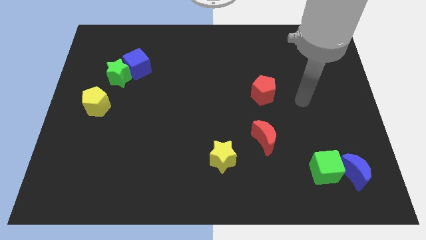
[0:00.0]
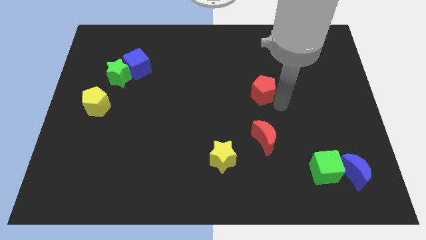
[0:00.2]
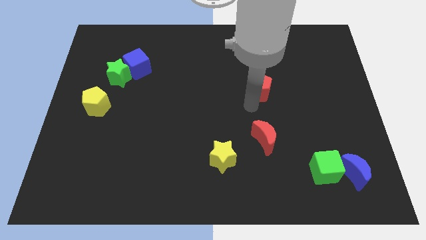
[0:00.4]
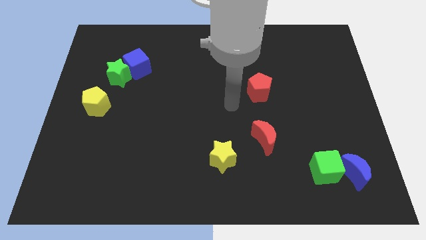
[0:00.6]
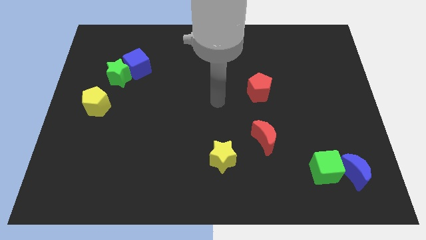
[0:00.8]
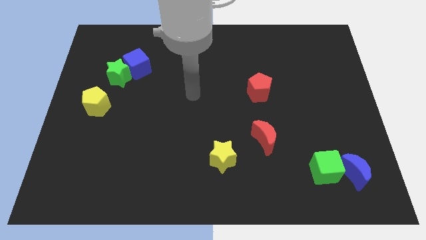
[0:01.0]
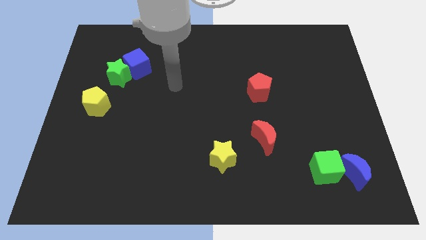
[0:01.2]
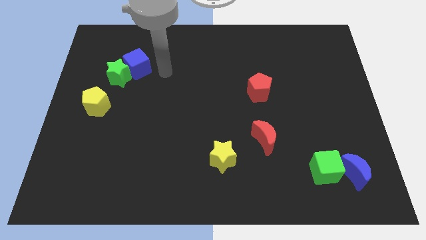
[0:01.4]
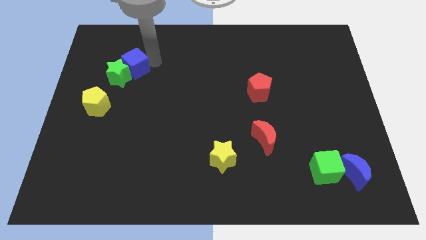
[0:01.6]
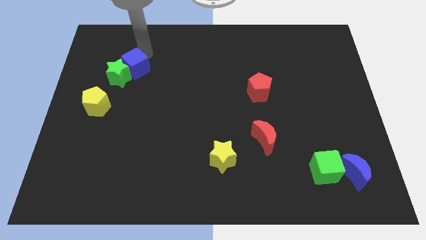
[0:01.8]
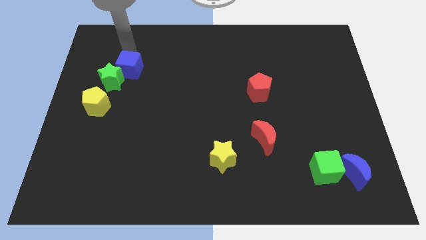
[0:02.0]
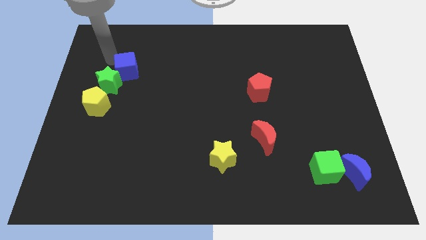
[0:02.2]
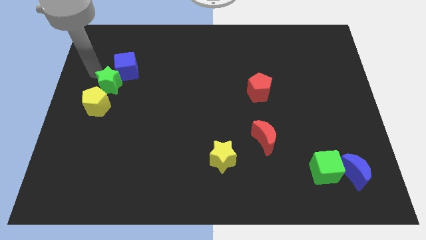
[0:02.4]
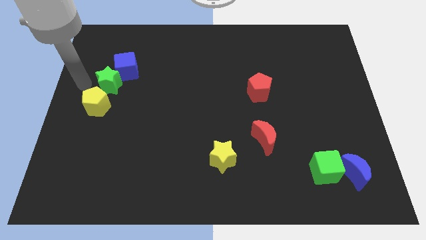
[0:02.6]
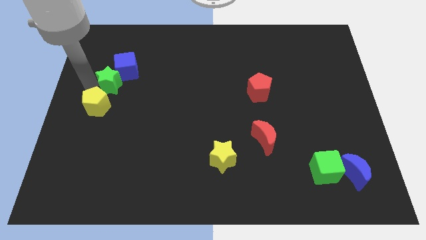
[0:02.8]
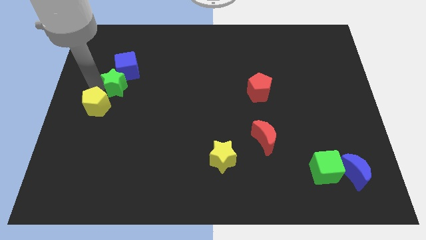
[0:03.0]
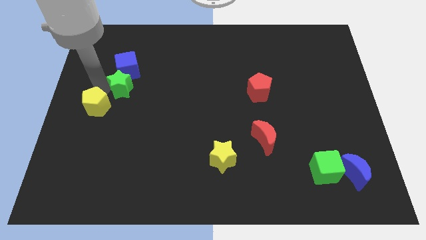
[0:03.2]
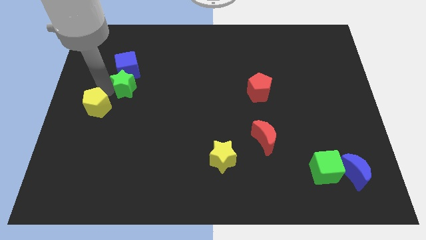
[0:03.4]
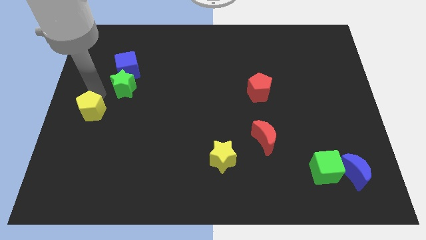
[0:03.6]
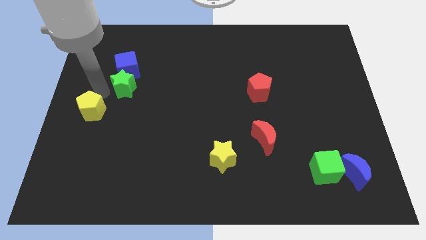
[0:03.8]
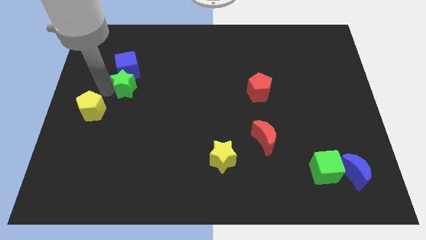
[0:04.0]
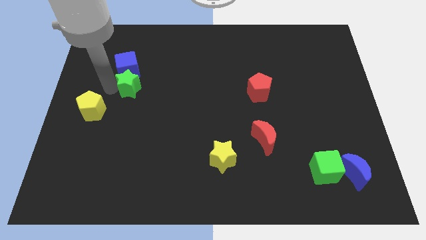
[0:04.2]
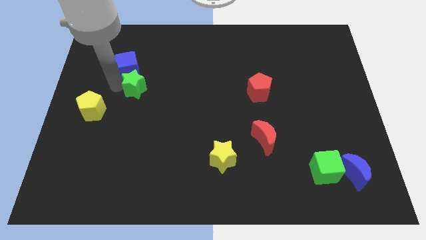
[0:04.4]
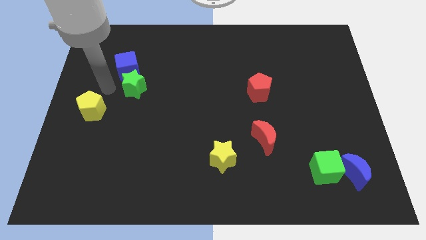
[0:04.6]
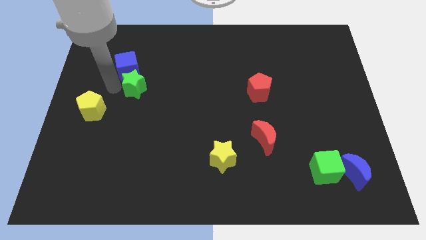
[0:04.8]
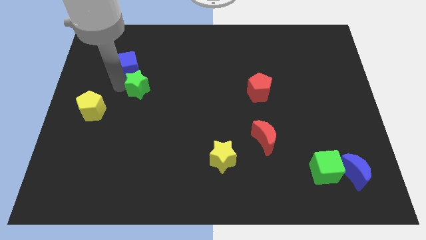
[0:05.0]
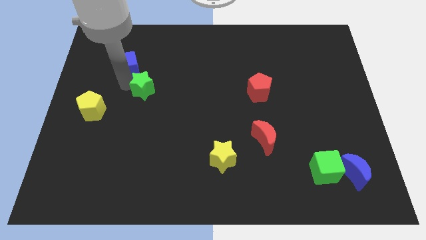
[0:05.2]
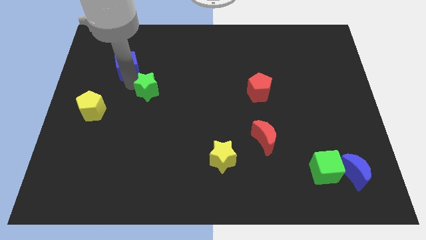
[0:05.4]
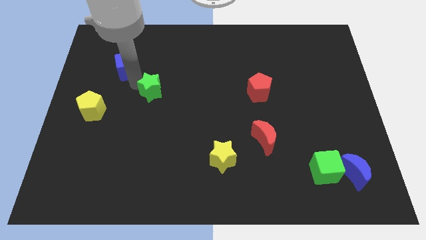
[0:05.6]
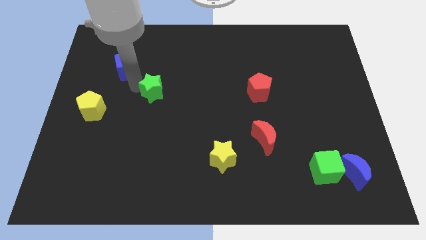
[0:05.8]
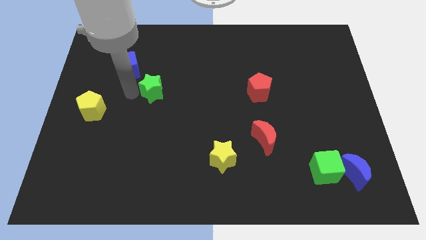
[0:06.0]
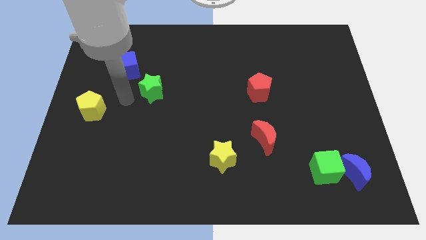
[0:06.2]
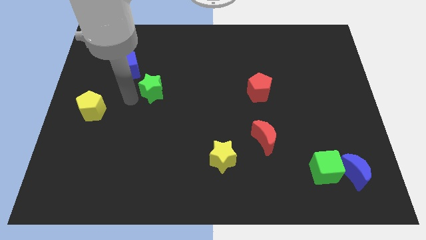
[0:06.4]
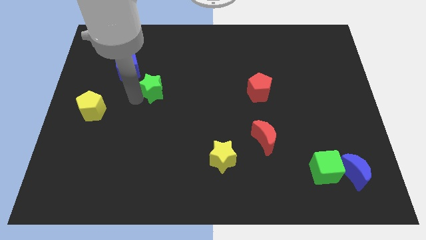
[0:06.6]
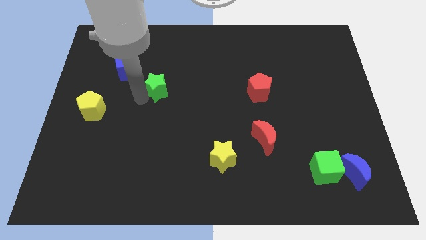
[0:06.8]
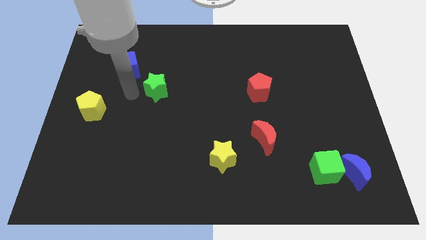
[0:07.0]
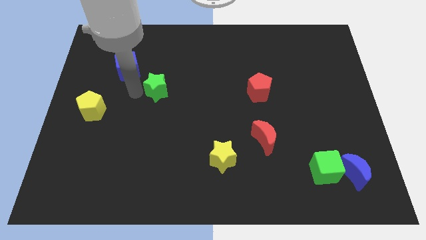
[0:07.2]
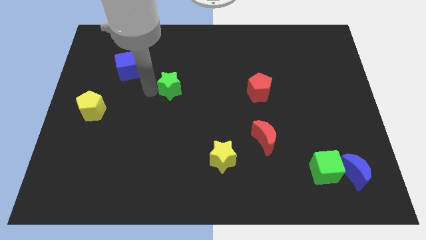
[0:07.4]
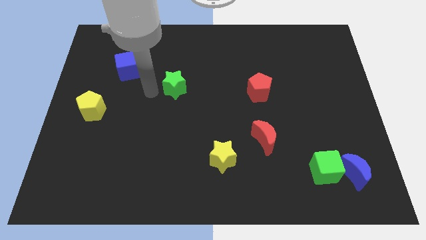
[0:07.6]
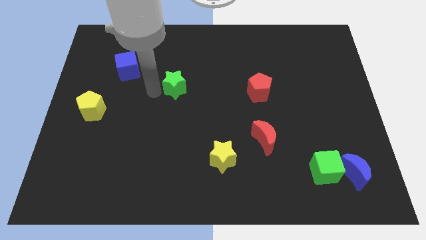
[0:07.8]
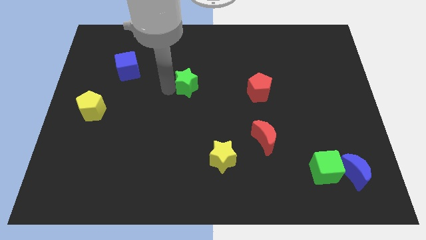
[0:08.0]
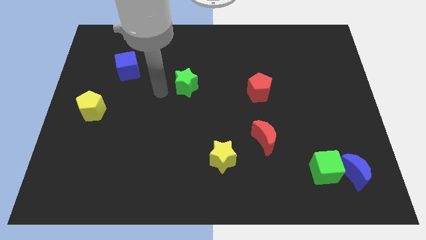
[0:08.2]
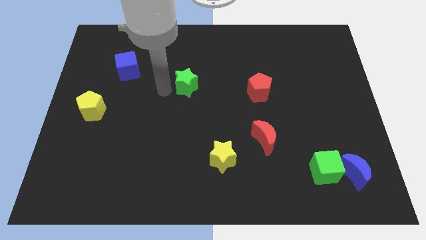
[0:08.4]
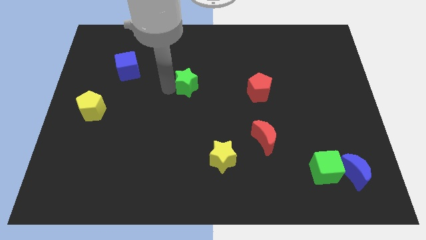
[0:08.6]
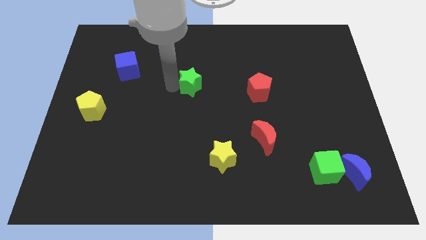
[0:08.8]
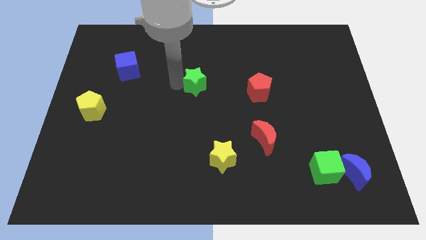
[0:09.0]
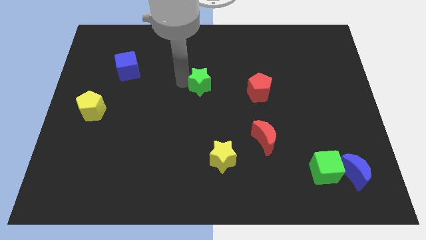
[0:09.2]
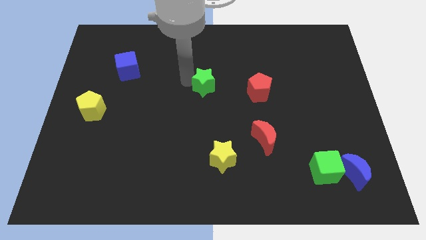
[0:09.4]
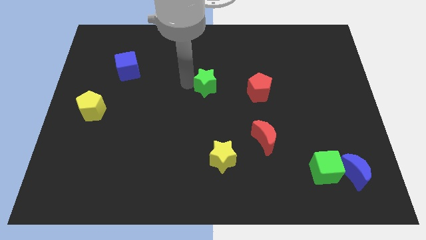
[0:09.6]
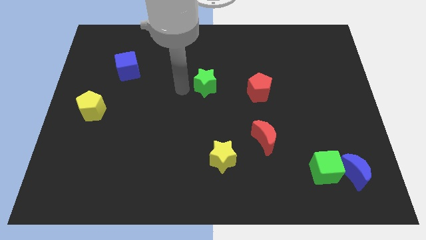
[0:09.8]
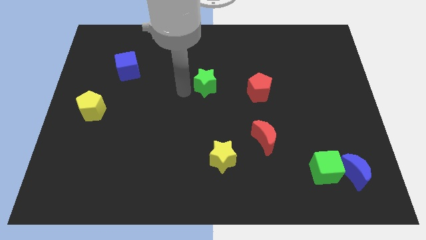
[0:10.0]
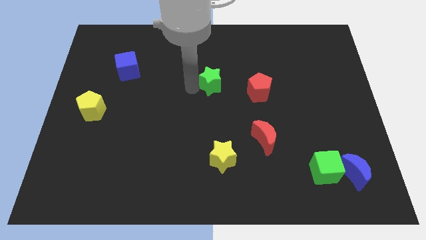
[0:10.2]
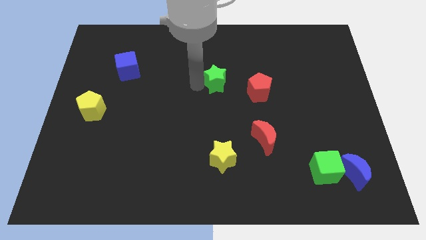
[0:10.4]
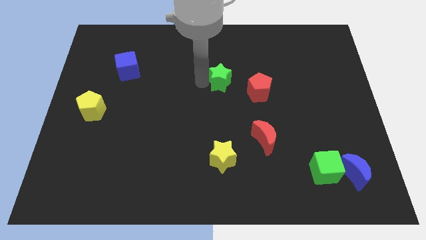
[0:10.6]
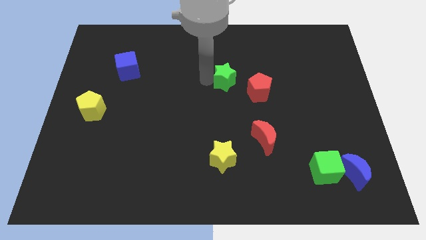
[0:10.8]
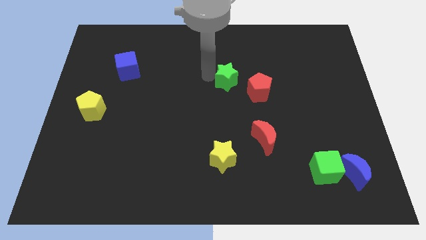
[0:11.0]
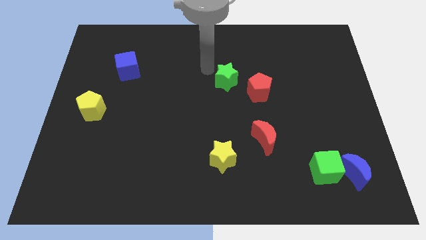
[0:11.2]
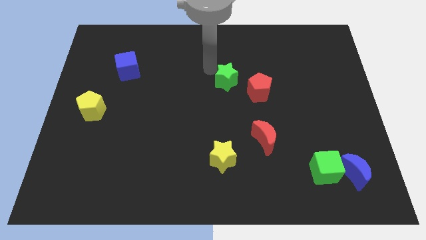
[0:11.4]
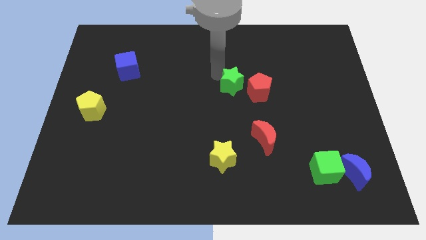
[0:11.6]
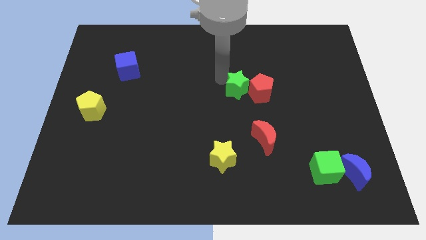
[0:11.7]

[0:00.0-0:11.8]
put the green star towards the red pentagon

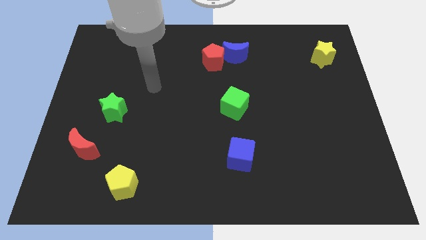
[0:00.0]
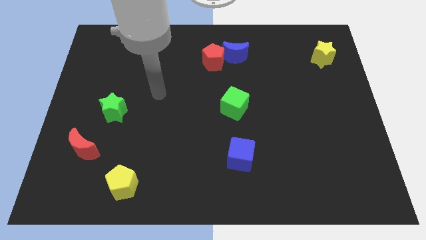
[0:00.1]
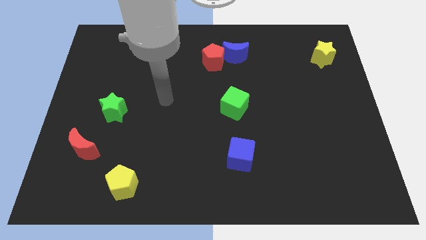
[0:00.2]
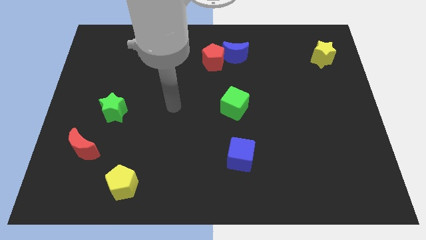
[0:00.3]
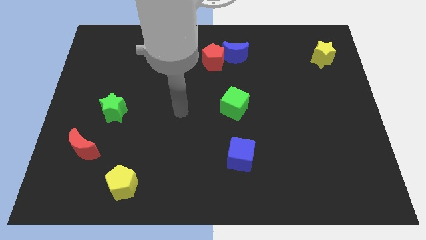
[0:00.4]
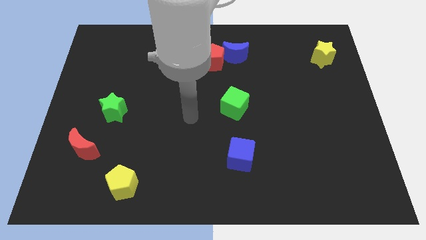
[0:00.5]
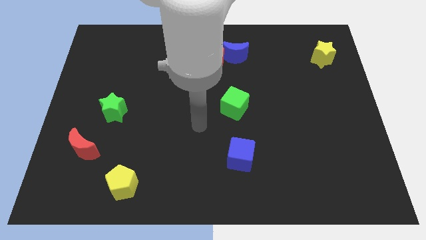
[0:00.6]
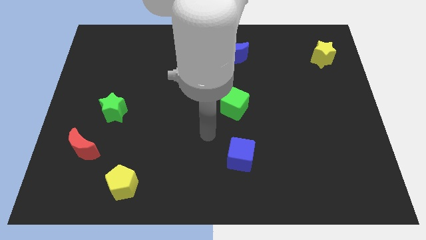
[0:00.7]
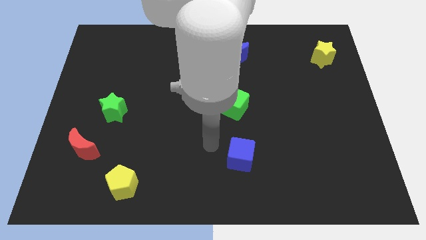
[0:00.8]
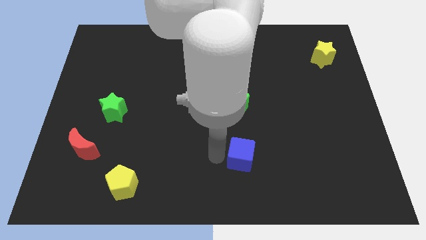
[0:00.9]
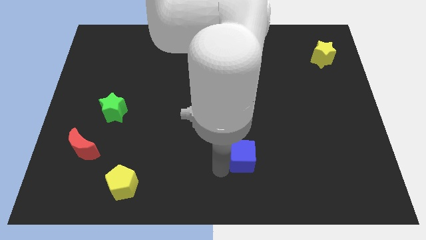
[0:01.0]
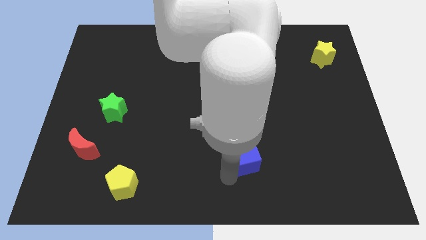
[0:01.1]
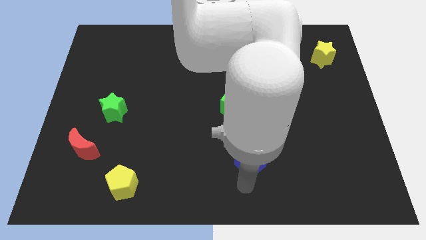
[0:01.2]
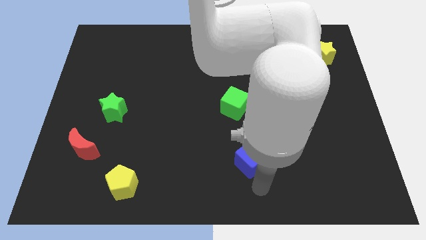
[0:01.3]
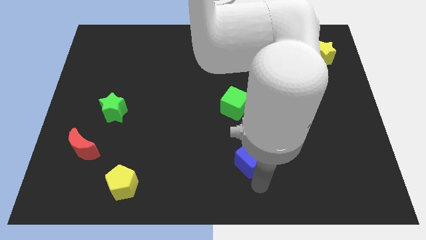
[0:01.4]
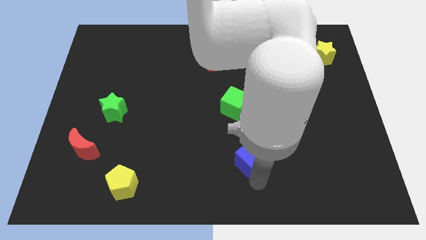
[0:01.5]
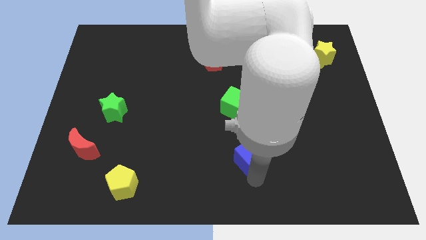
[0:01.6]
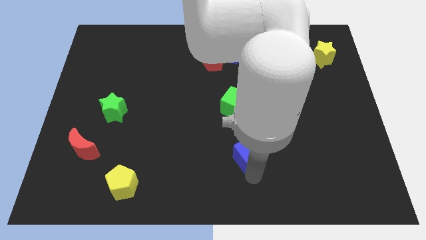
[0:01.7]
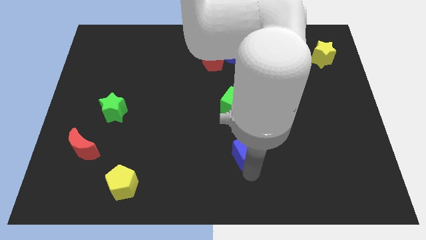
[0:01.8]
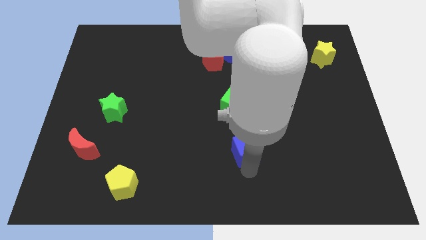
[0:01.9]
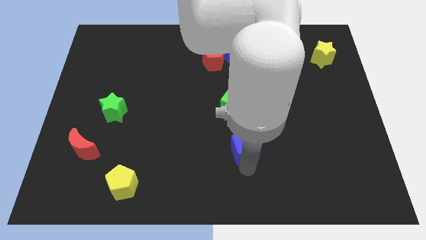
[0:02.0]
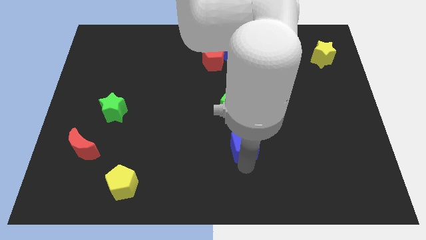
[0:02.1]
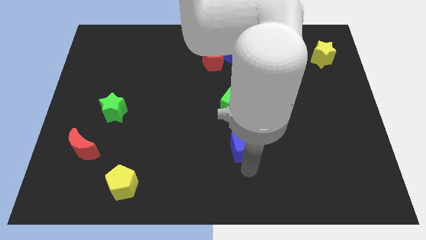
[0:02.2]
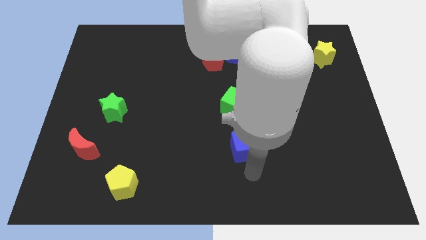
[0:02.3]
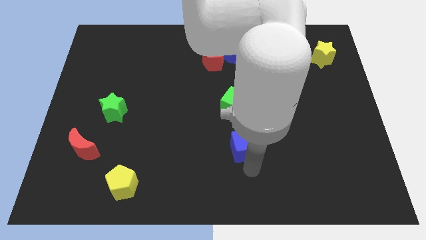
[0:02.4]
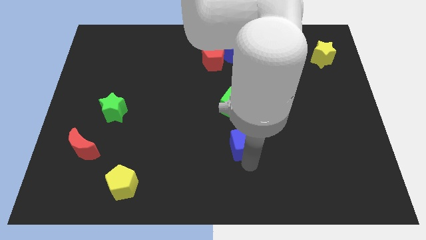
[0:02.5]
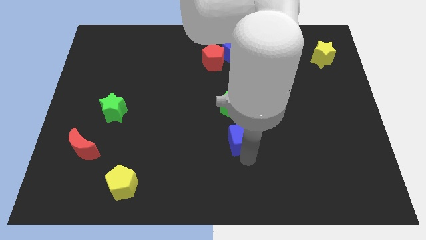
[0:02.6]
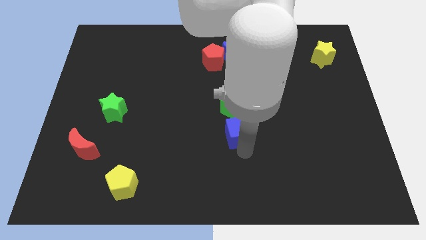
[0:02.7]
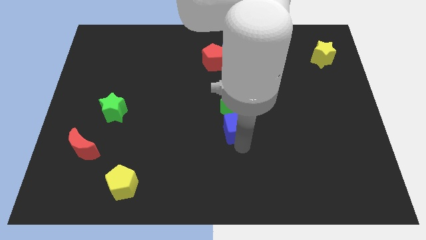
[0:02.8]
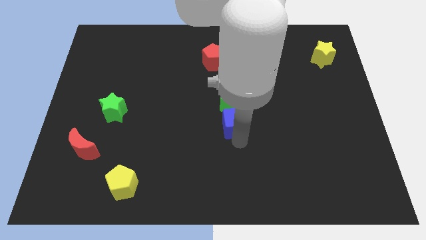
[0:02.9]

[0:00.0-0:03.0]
slide the blue cube next to the green cube
